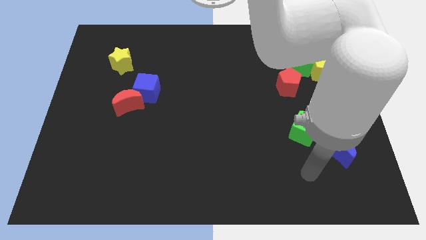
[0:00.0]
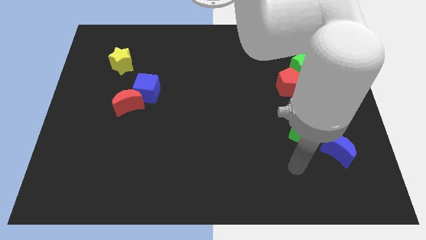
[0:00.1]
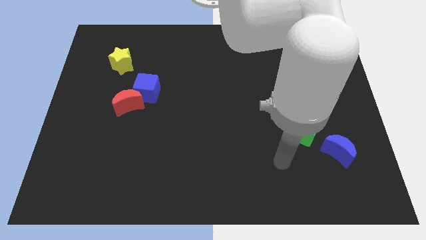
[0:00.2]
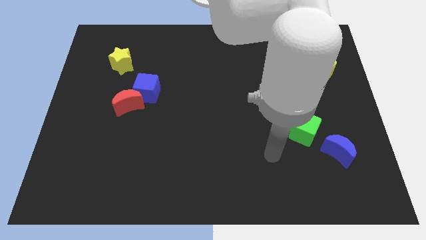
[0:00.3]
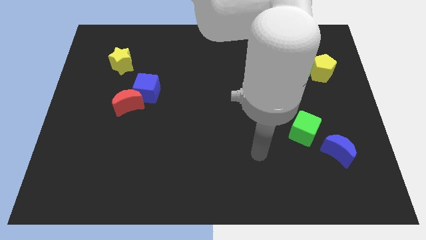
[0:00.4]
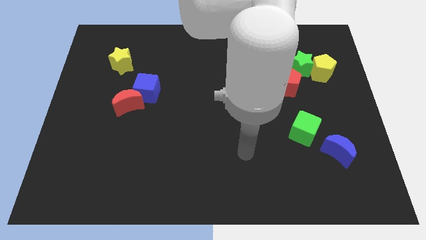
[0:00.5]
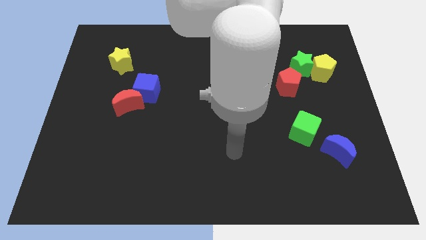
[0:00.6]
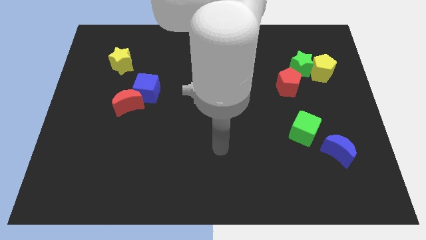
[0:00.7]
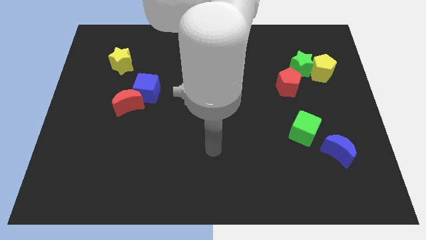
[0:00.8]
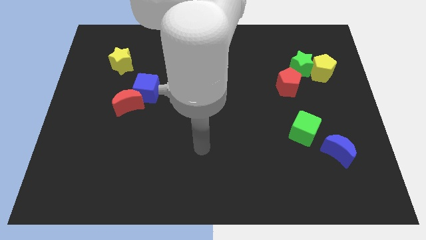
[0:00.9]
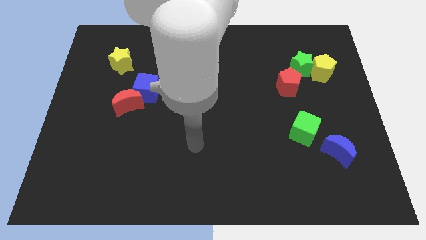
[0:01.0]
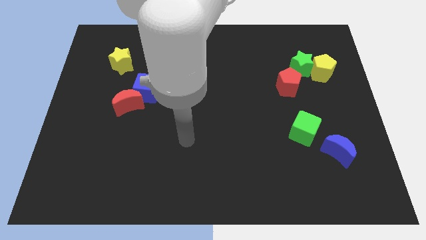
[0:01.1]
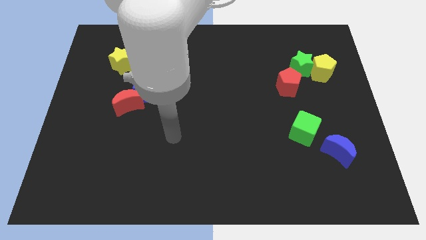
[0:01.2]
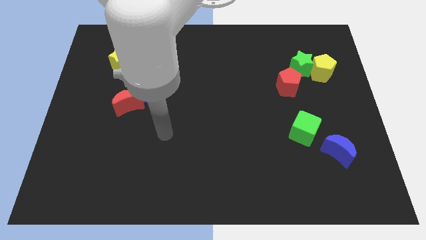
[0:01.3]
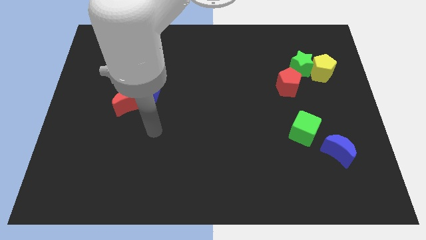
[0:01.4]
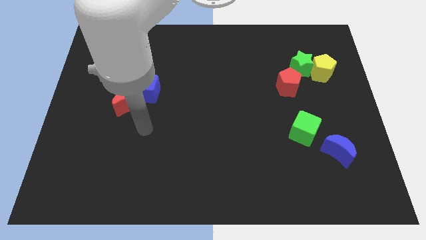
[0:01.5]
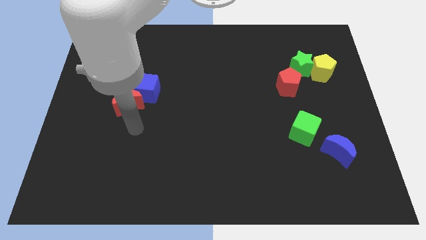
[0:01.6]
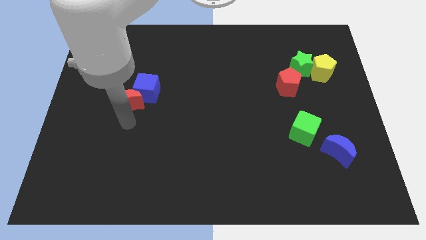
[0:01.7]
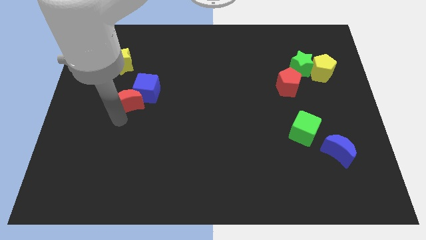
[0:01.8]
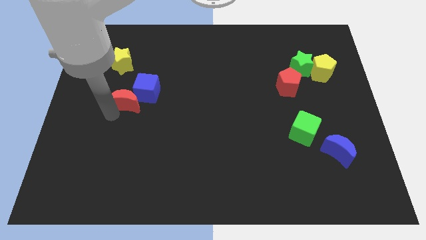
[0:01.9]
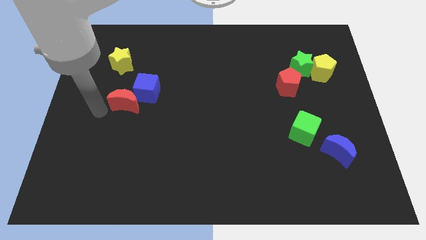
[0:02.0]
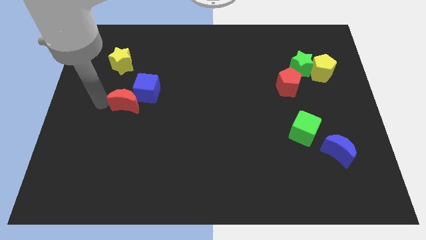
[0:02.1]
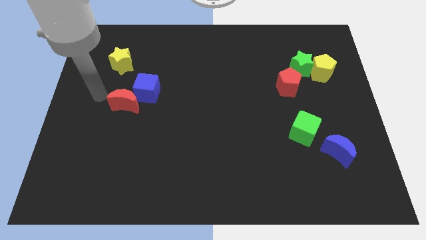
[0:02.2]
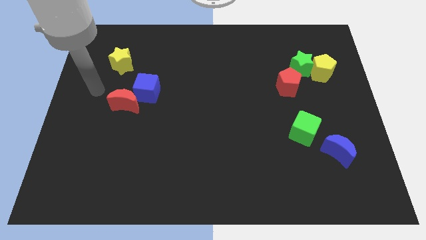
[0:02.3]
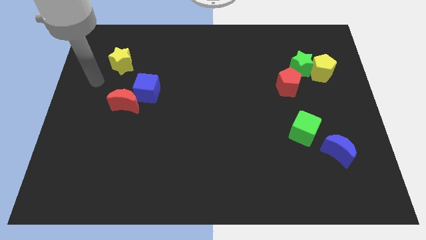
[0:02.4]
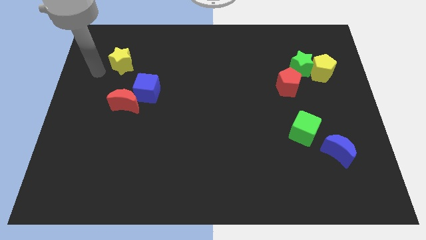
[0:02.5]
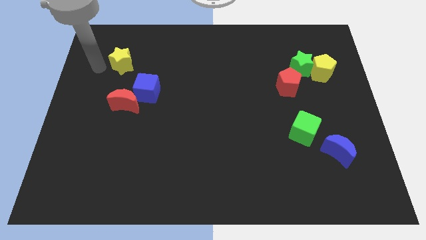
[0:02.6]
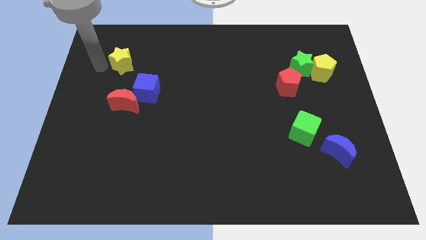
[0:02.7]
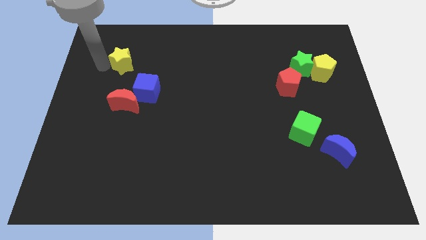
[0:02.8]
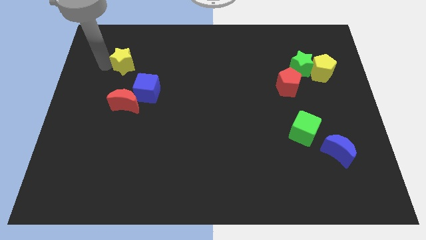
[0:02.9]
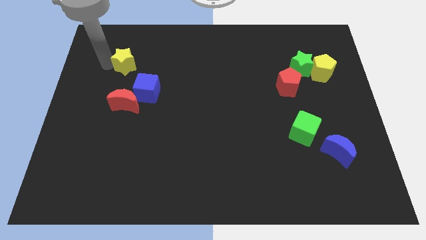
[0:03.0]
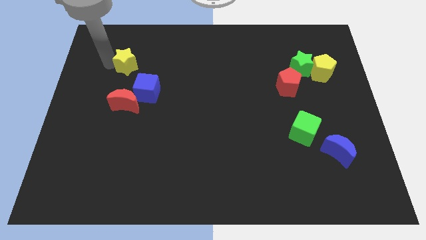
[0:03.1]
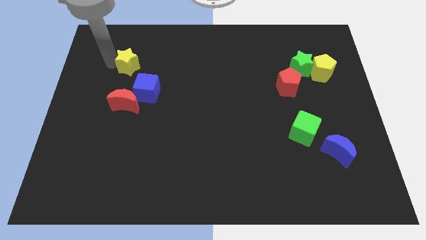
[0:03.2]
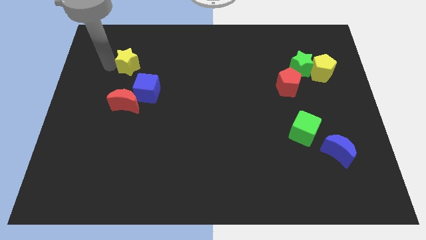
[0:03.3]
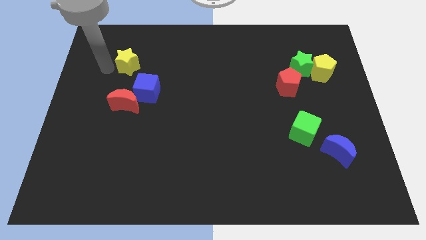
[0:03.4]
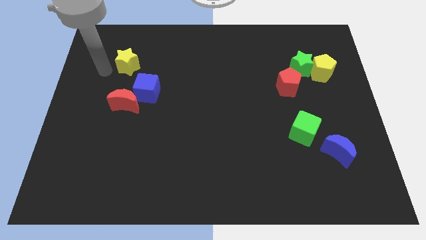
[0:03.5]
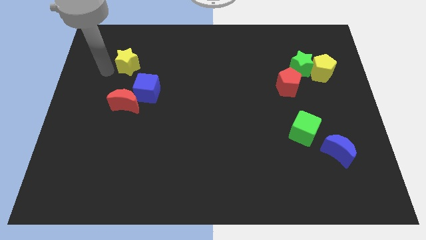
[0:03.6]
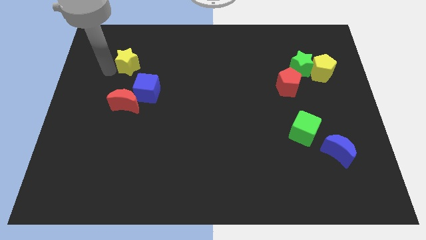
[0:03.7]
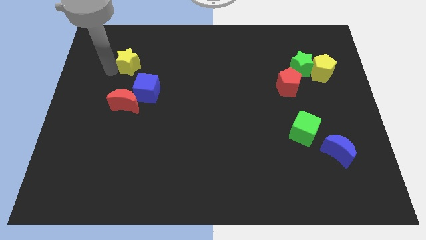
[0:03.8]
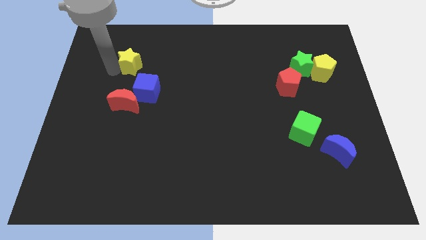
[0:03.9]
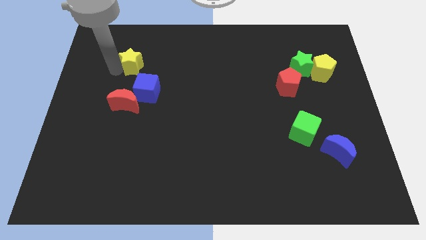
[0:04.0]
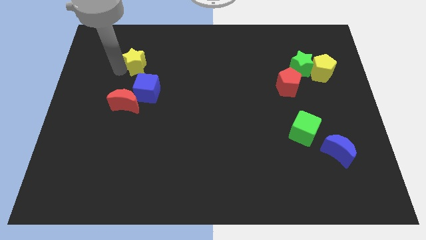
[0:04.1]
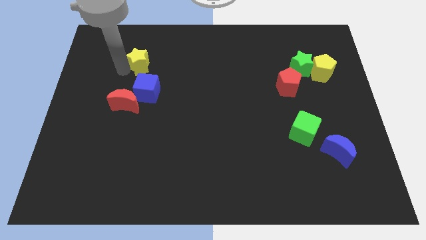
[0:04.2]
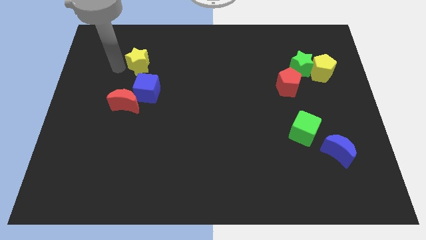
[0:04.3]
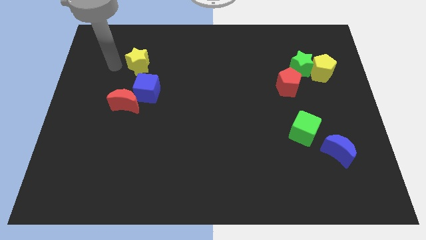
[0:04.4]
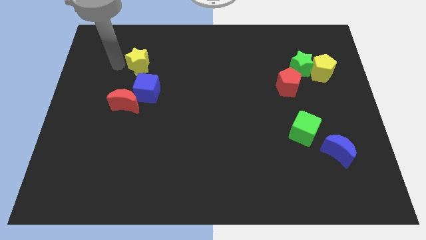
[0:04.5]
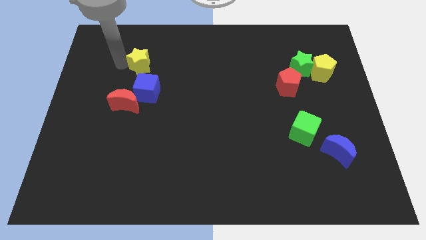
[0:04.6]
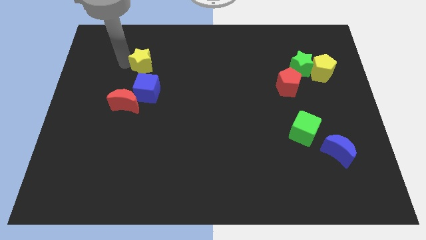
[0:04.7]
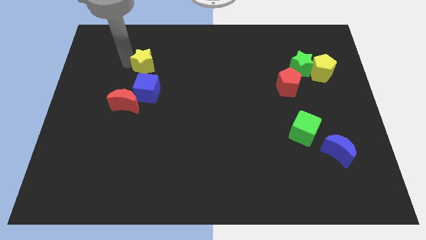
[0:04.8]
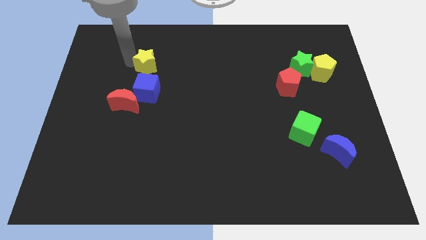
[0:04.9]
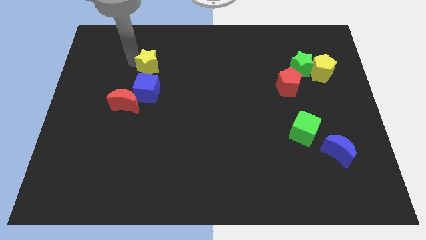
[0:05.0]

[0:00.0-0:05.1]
push the yellow star right a little

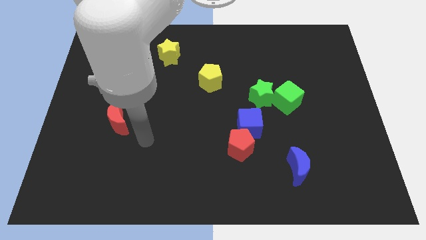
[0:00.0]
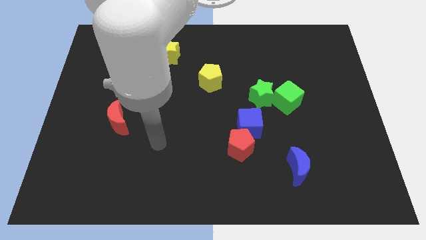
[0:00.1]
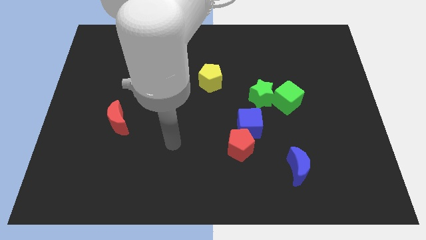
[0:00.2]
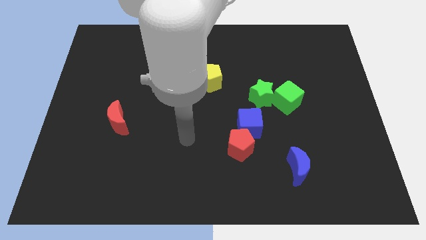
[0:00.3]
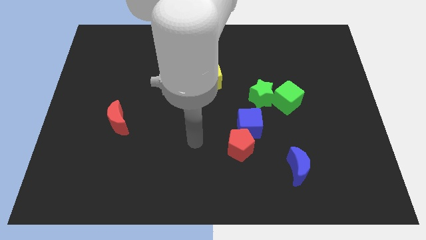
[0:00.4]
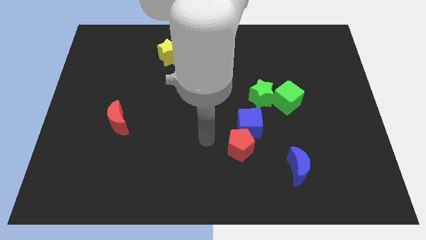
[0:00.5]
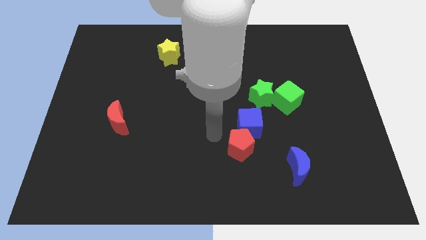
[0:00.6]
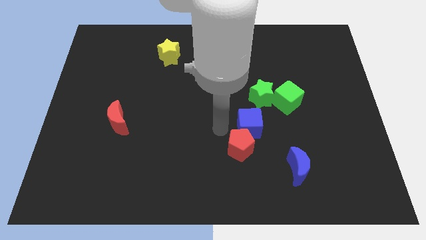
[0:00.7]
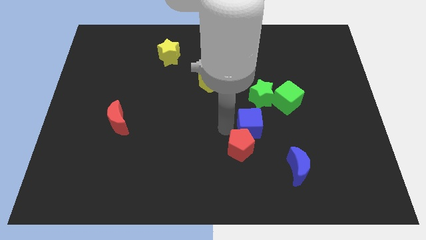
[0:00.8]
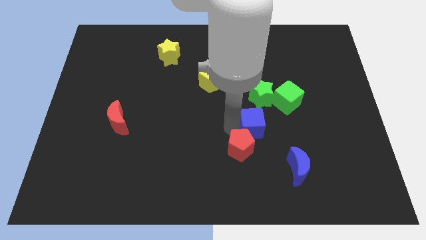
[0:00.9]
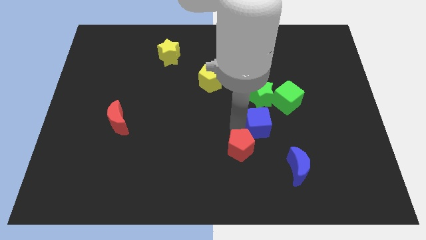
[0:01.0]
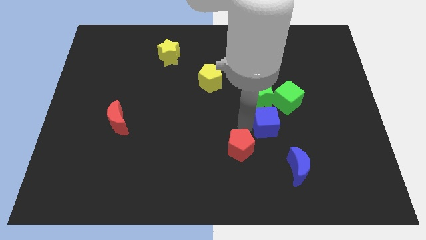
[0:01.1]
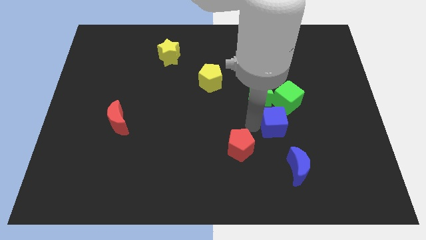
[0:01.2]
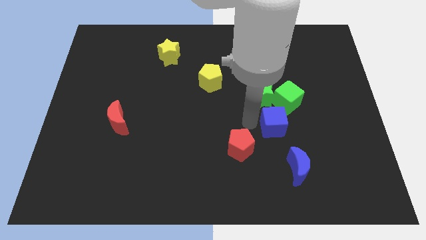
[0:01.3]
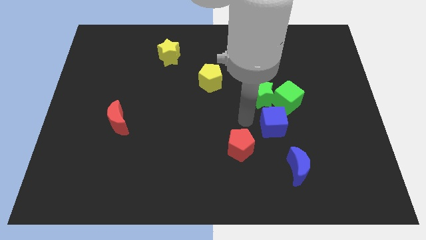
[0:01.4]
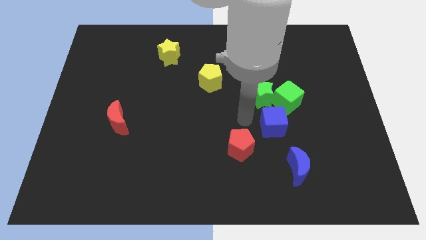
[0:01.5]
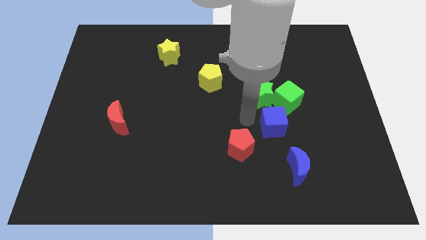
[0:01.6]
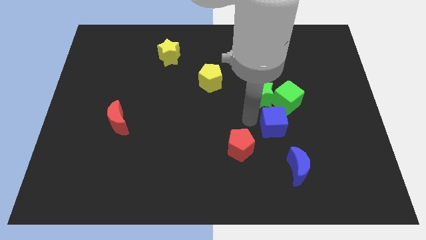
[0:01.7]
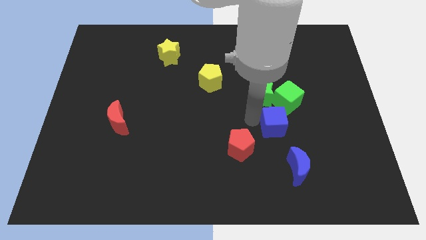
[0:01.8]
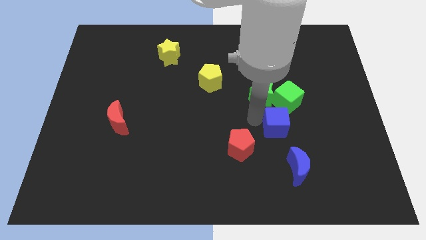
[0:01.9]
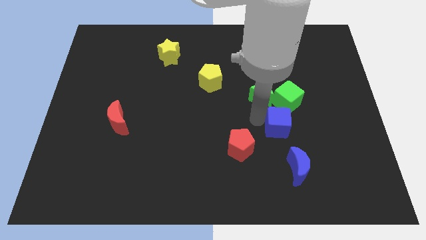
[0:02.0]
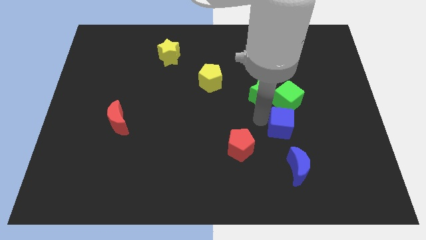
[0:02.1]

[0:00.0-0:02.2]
slightly push the blue cube to the right

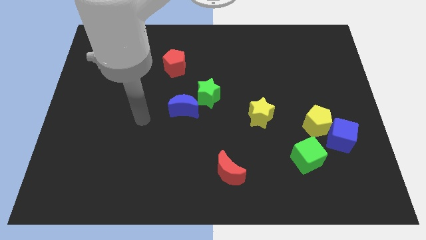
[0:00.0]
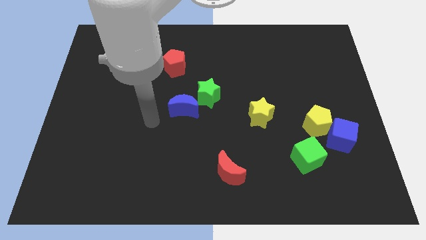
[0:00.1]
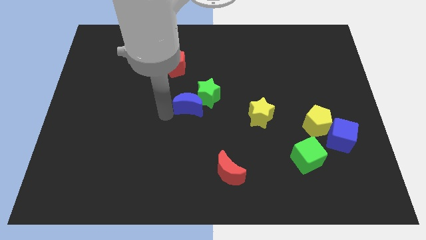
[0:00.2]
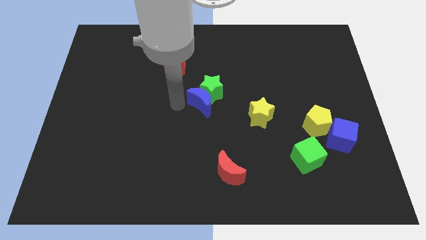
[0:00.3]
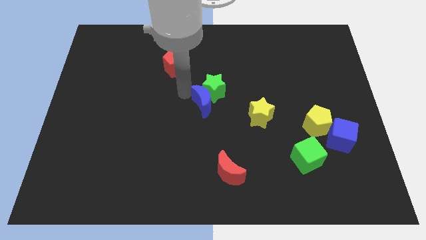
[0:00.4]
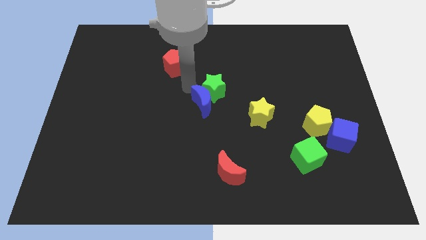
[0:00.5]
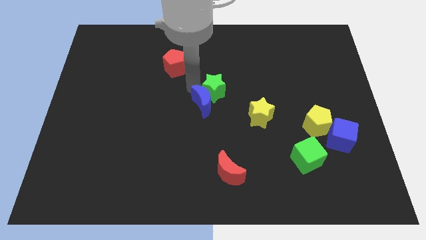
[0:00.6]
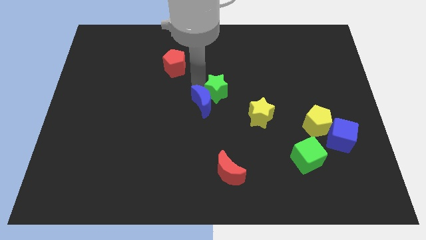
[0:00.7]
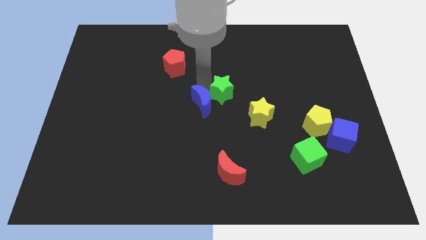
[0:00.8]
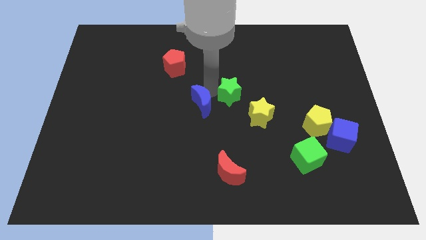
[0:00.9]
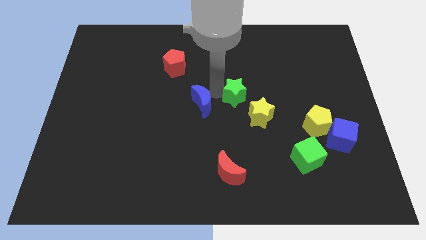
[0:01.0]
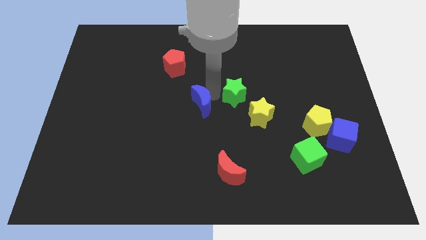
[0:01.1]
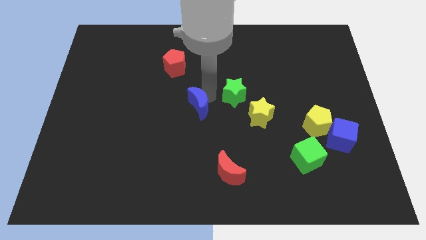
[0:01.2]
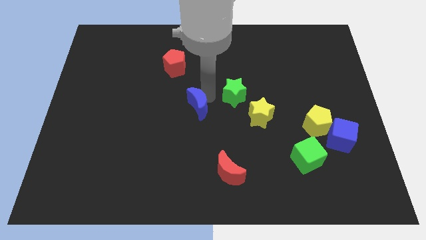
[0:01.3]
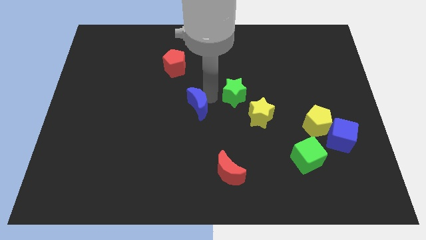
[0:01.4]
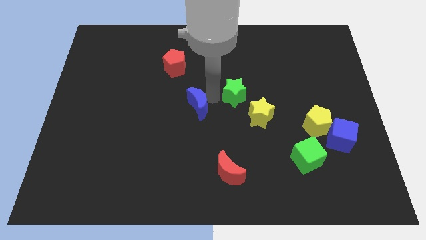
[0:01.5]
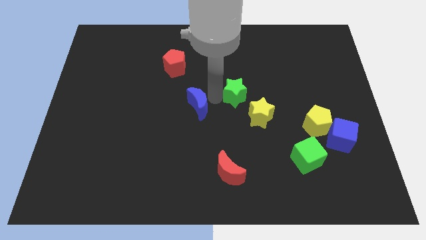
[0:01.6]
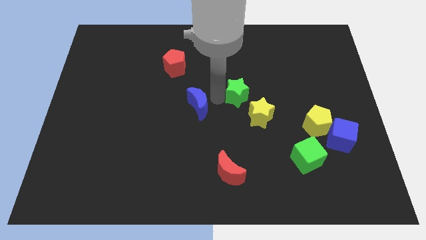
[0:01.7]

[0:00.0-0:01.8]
push the green star to the right slightly
